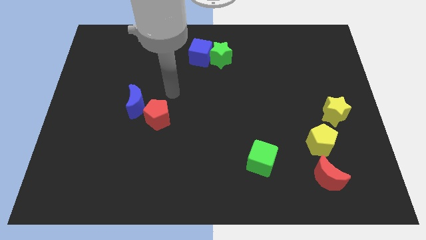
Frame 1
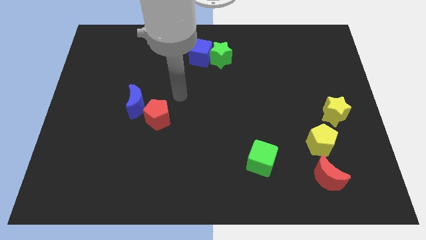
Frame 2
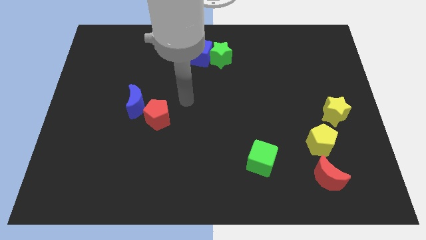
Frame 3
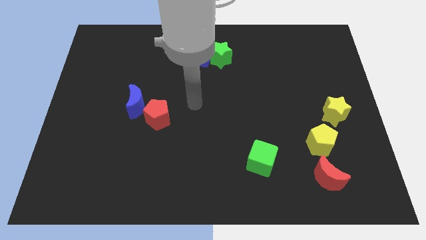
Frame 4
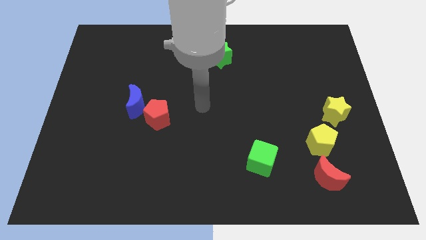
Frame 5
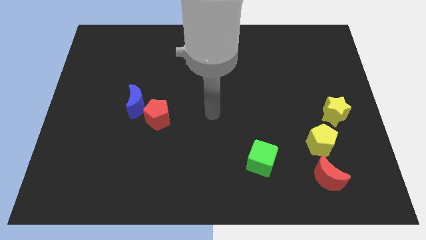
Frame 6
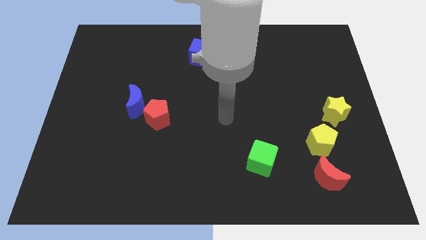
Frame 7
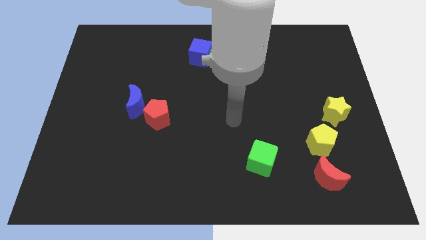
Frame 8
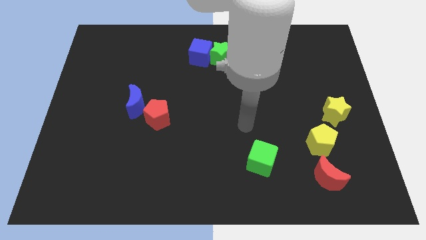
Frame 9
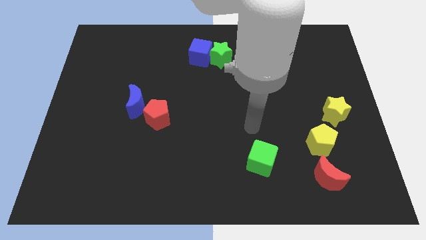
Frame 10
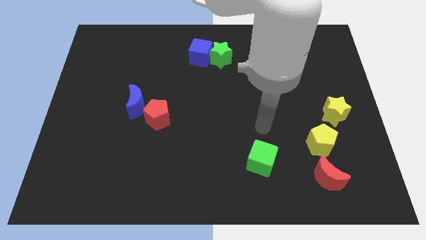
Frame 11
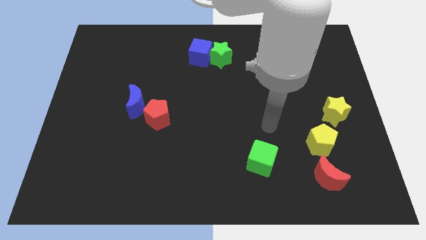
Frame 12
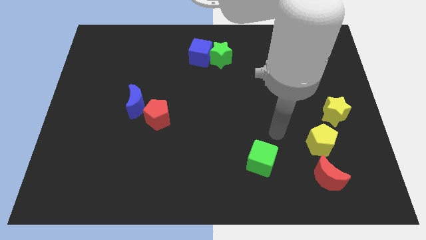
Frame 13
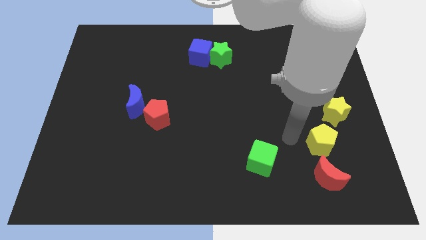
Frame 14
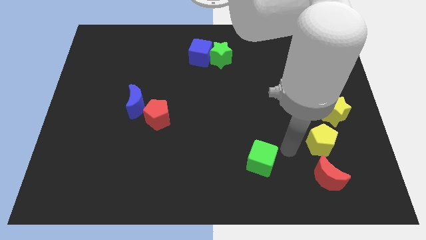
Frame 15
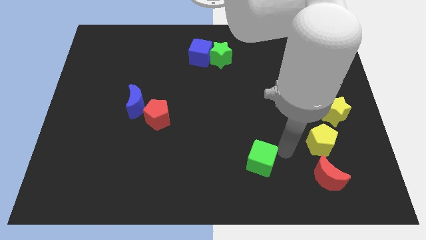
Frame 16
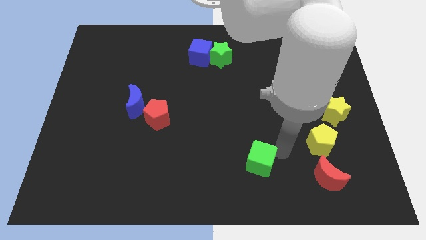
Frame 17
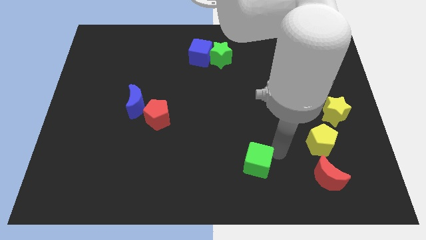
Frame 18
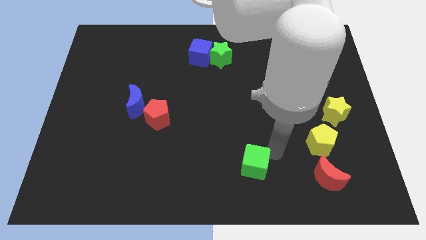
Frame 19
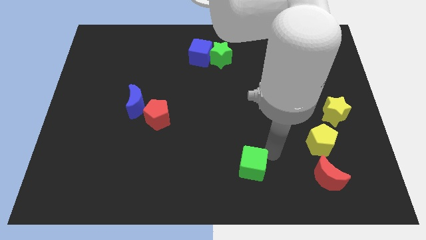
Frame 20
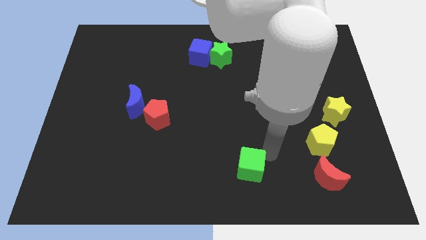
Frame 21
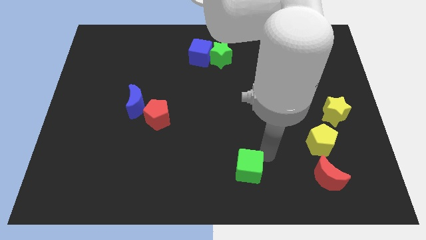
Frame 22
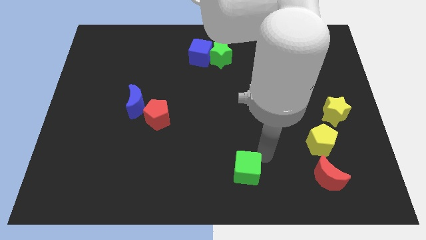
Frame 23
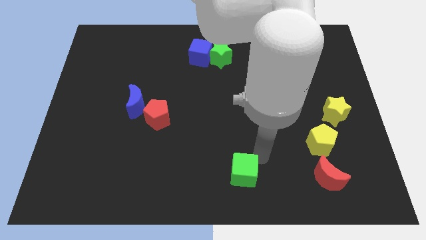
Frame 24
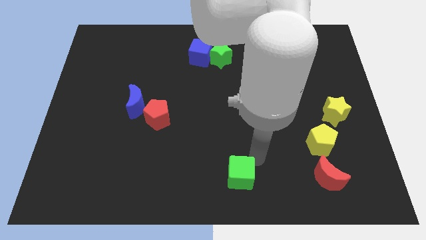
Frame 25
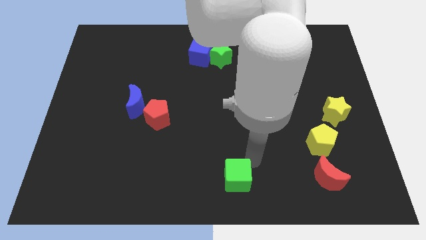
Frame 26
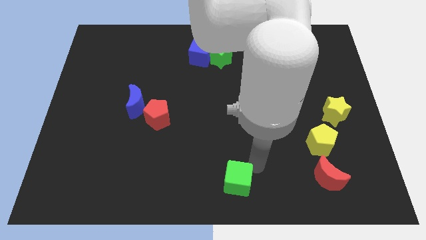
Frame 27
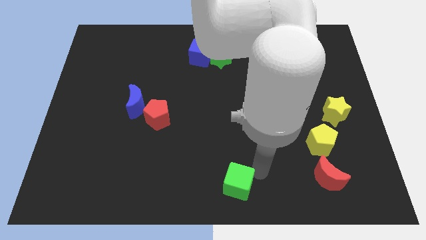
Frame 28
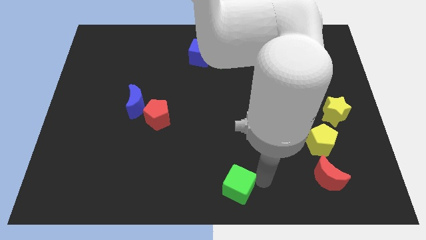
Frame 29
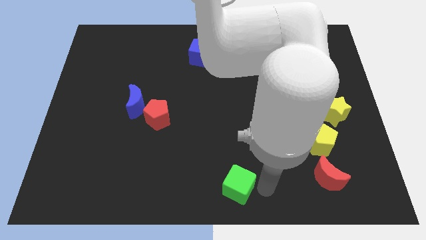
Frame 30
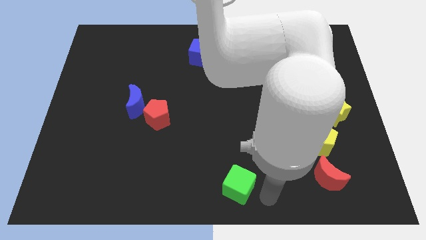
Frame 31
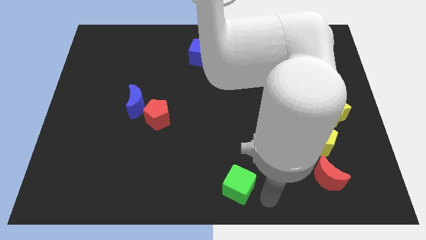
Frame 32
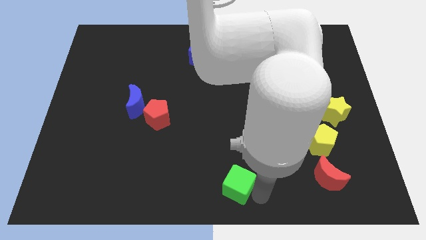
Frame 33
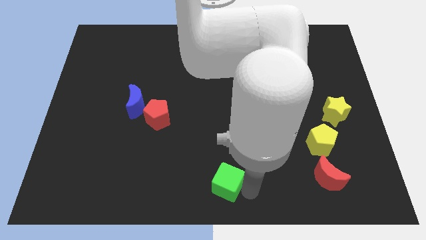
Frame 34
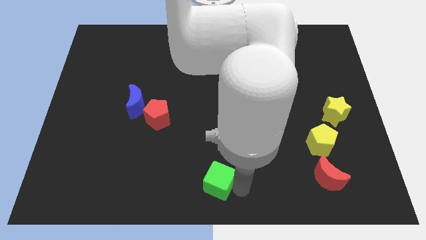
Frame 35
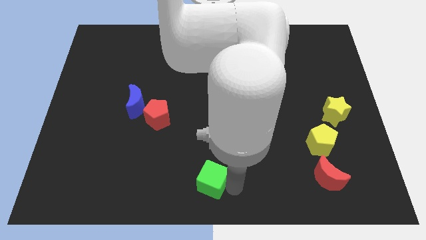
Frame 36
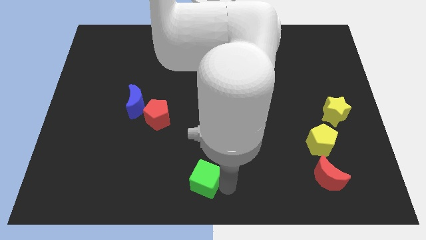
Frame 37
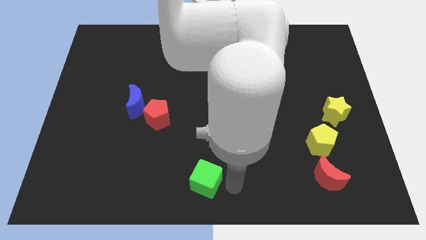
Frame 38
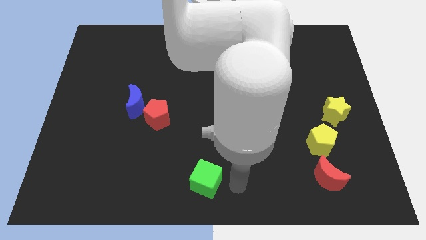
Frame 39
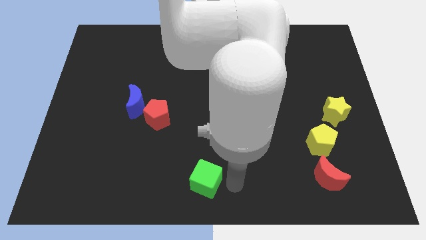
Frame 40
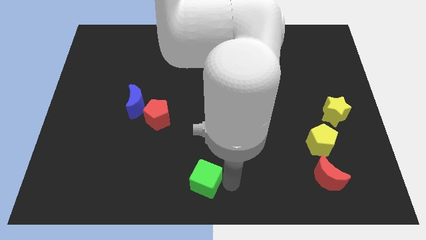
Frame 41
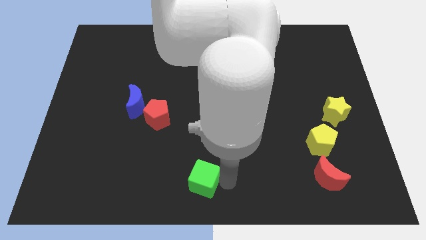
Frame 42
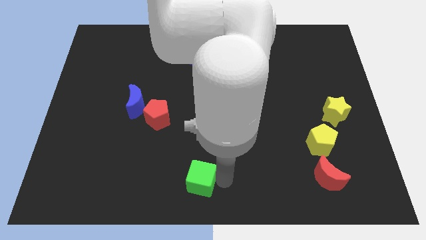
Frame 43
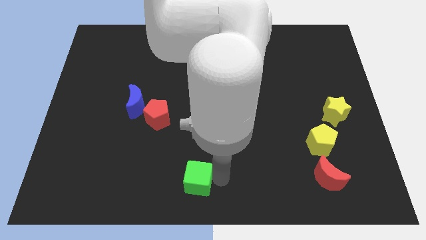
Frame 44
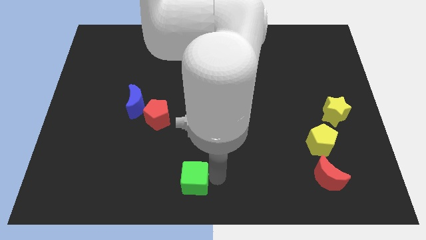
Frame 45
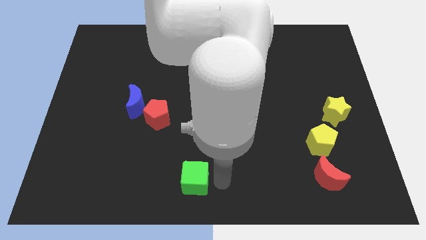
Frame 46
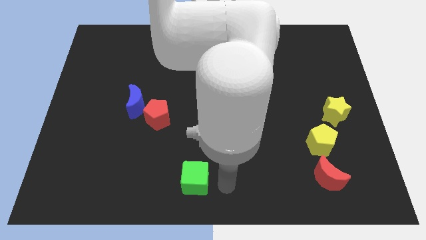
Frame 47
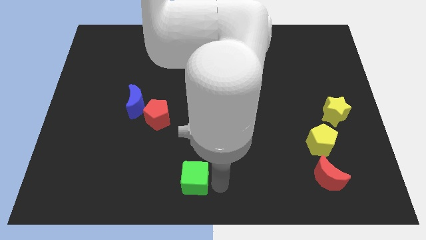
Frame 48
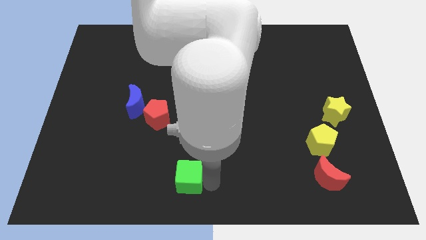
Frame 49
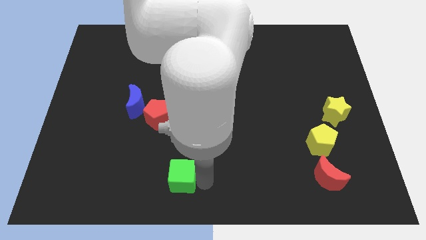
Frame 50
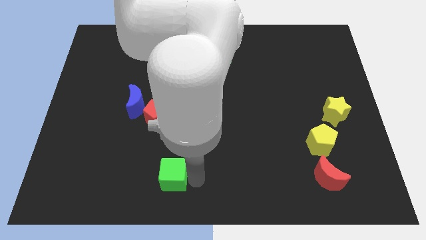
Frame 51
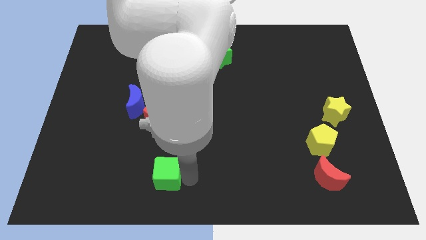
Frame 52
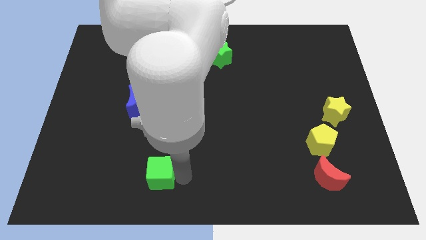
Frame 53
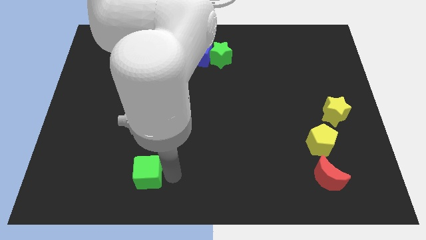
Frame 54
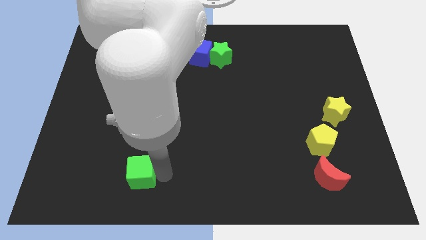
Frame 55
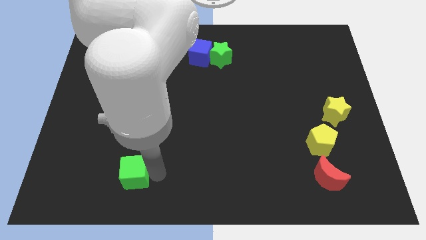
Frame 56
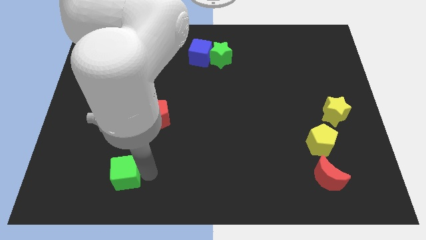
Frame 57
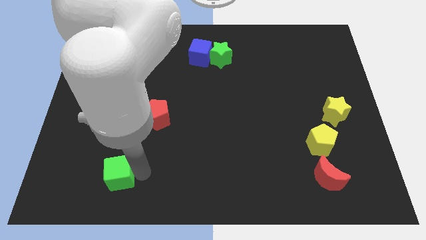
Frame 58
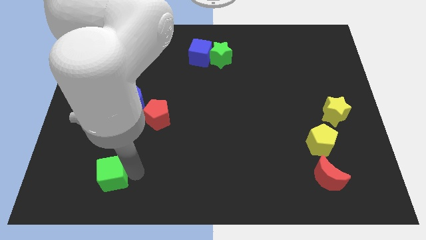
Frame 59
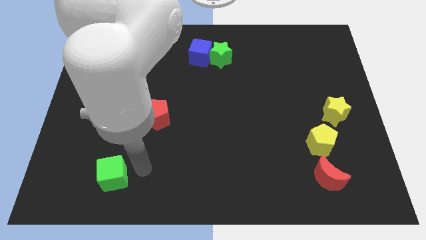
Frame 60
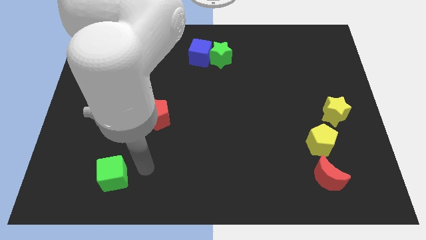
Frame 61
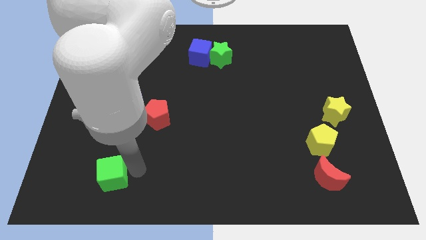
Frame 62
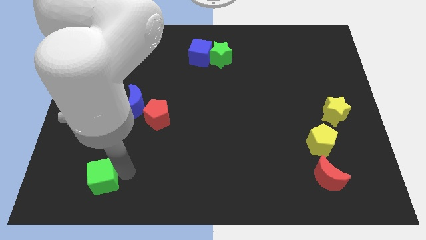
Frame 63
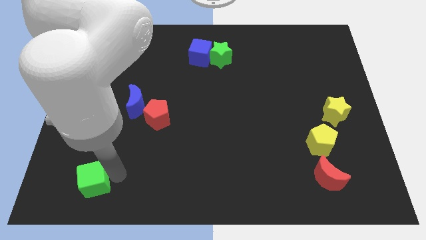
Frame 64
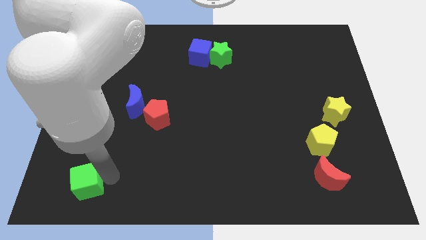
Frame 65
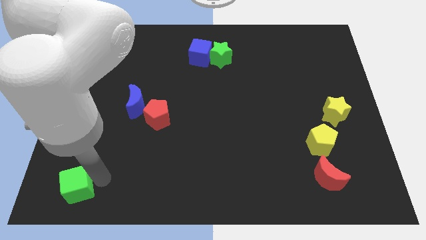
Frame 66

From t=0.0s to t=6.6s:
push the green cube to the lower left corner
